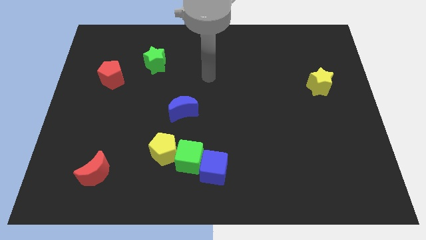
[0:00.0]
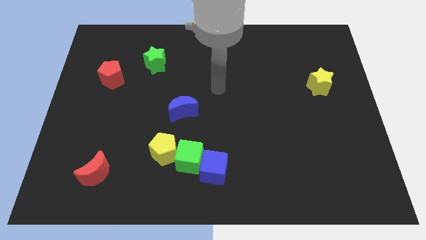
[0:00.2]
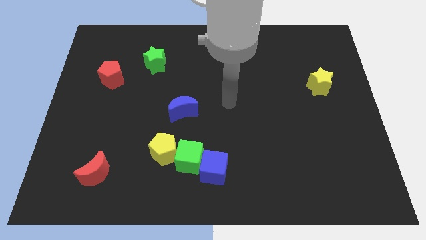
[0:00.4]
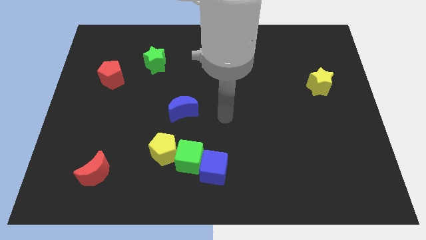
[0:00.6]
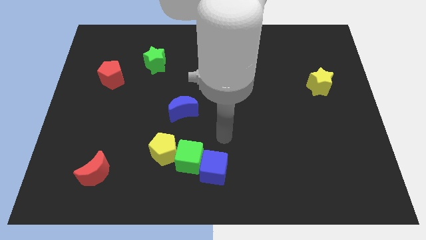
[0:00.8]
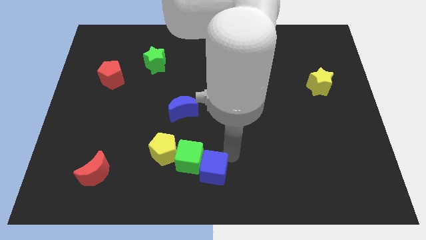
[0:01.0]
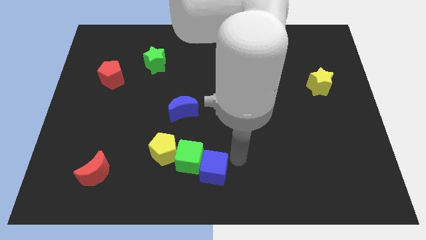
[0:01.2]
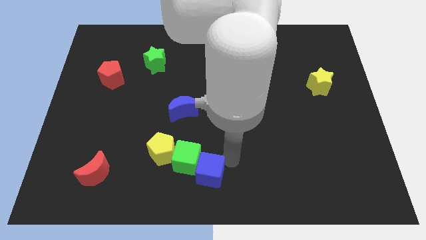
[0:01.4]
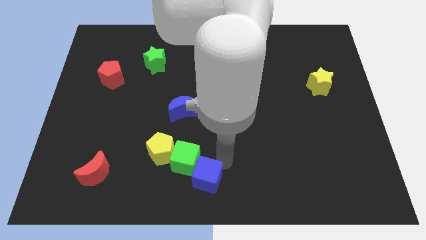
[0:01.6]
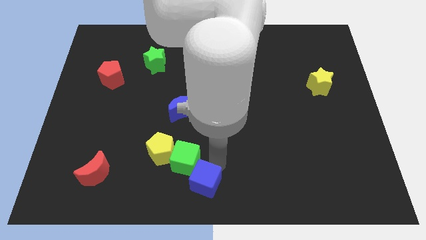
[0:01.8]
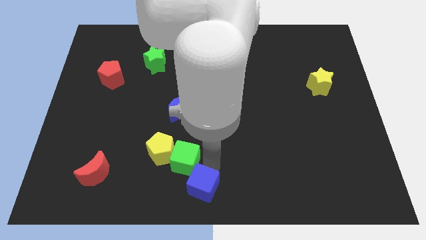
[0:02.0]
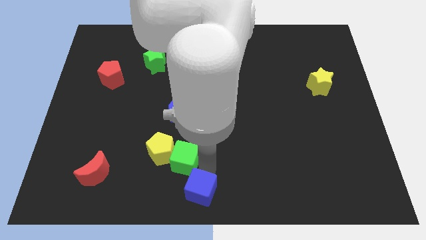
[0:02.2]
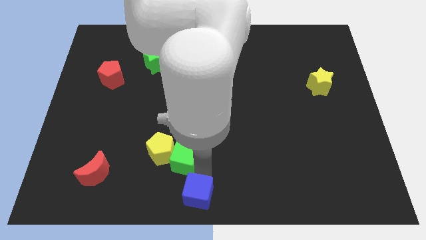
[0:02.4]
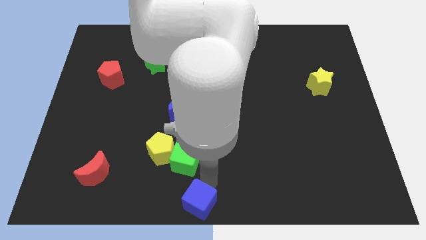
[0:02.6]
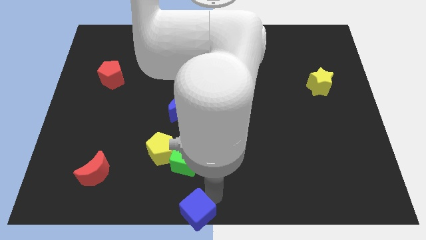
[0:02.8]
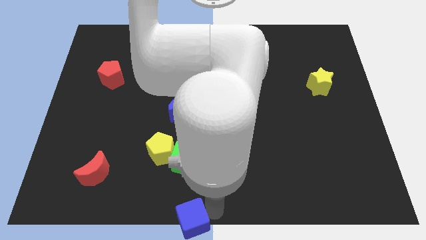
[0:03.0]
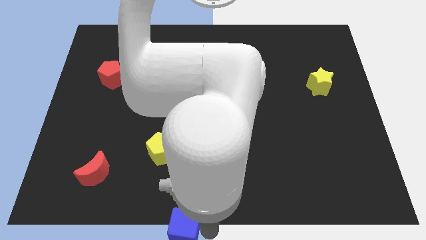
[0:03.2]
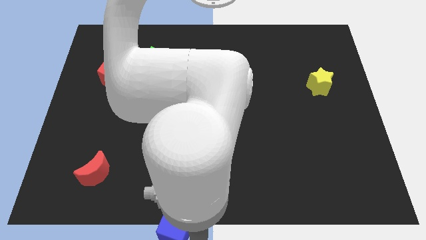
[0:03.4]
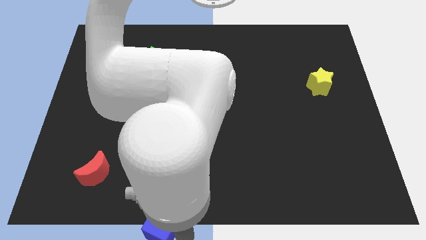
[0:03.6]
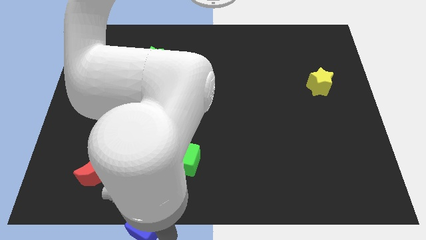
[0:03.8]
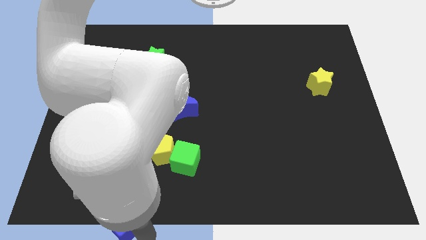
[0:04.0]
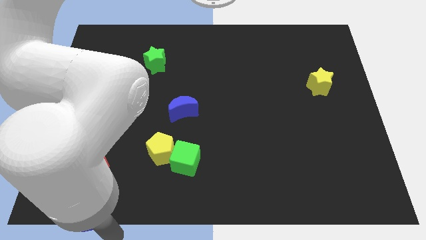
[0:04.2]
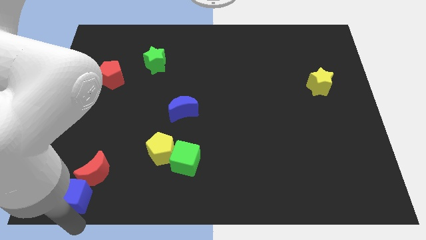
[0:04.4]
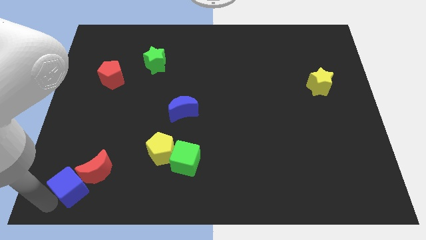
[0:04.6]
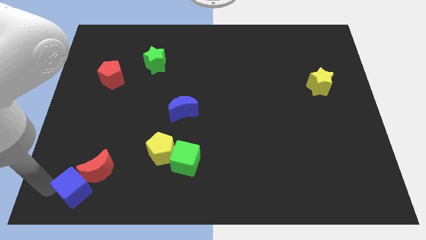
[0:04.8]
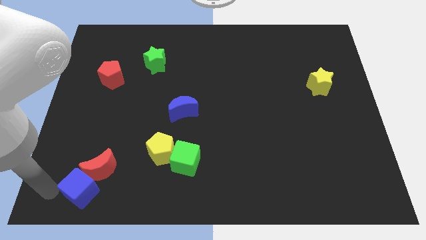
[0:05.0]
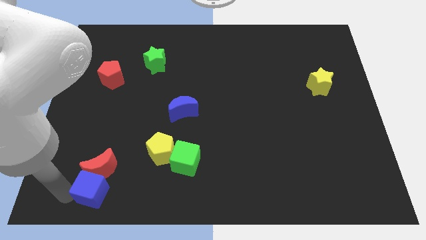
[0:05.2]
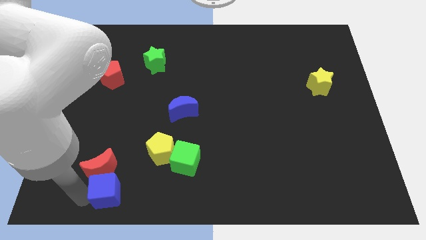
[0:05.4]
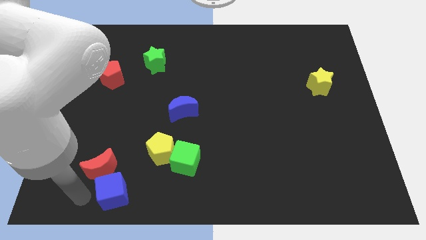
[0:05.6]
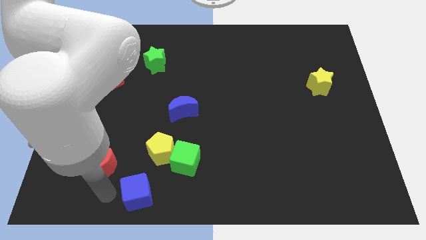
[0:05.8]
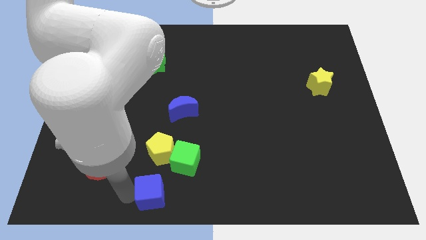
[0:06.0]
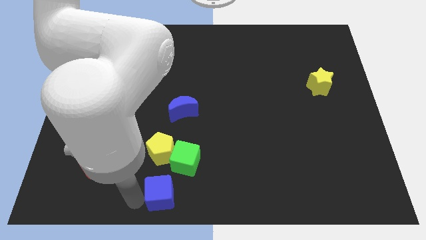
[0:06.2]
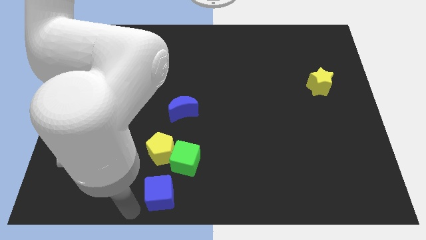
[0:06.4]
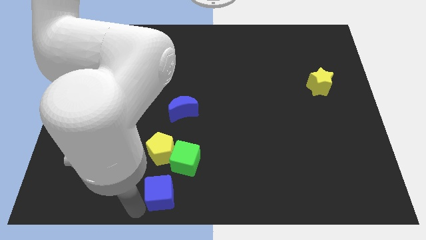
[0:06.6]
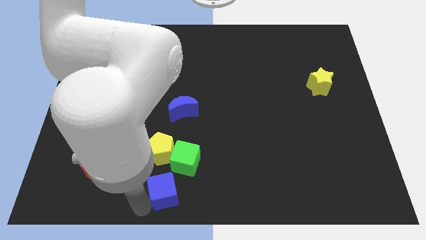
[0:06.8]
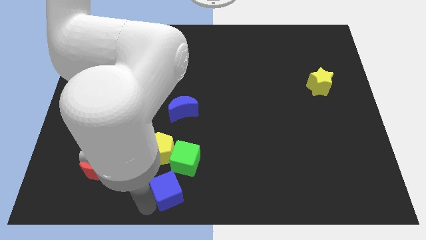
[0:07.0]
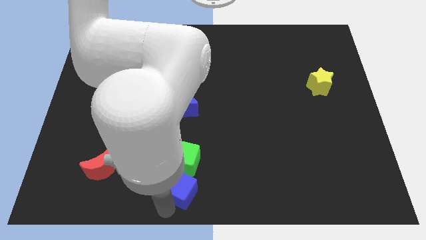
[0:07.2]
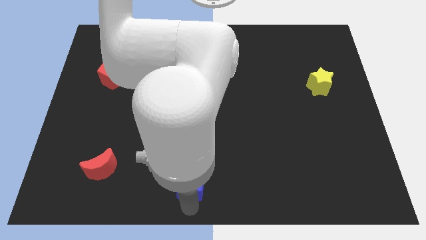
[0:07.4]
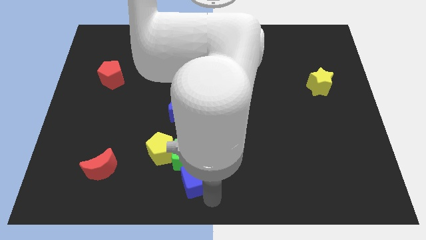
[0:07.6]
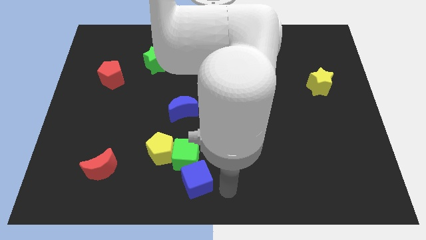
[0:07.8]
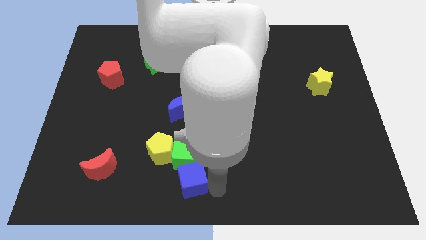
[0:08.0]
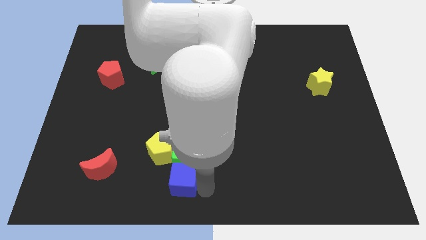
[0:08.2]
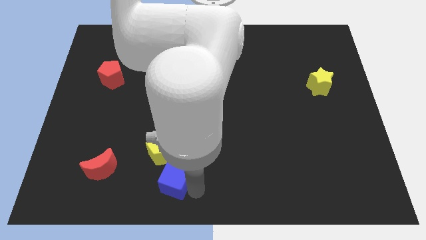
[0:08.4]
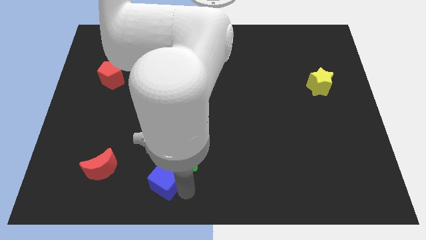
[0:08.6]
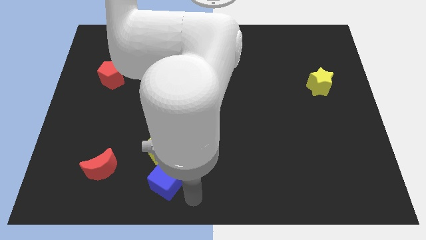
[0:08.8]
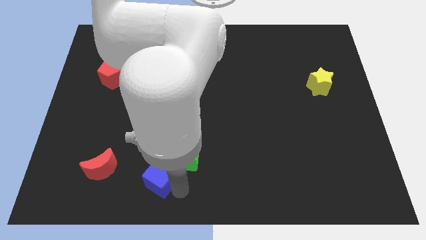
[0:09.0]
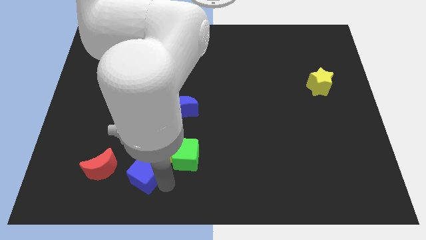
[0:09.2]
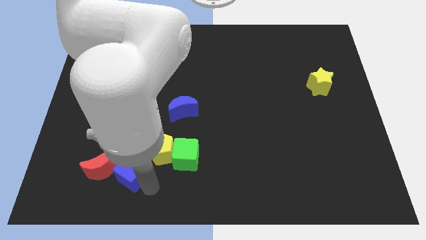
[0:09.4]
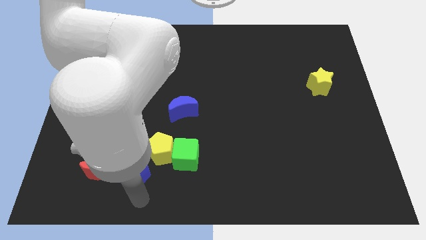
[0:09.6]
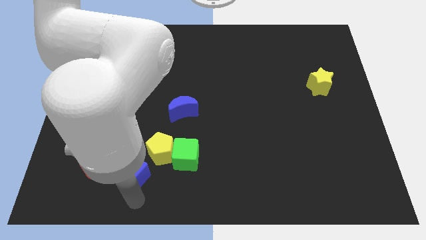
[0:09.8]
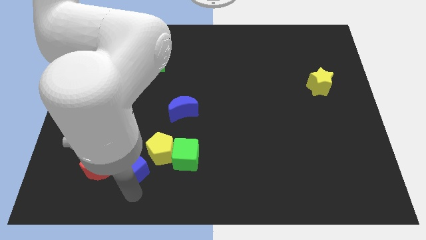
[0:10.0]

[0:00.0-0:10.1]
push the blue cube to the top right of the red moon

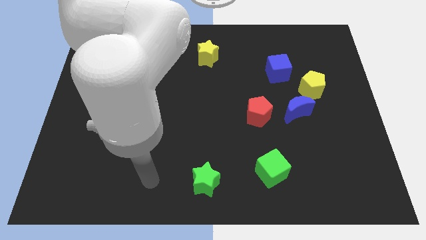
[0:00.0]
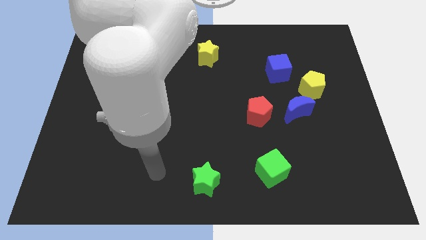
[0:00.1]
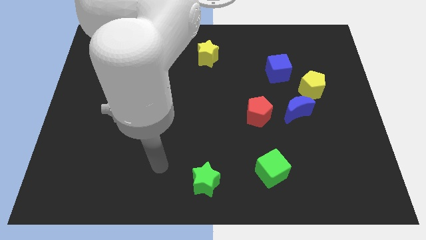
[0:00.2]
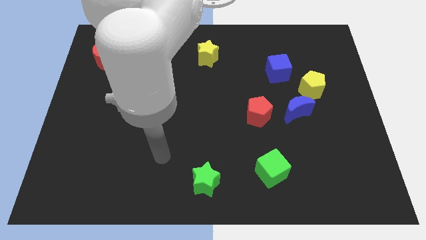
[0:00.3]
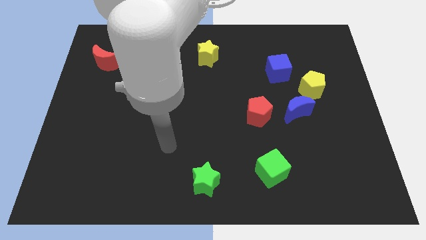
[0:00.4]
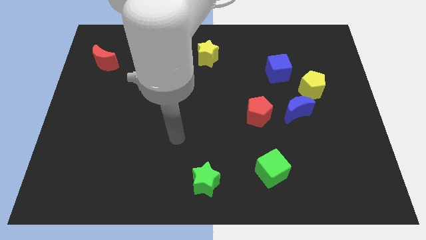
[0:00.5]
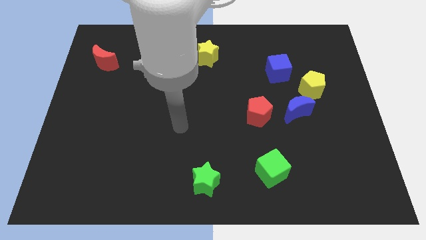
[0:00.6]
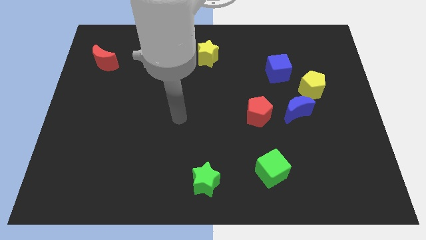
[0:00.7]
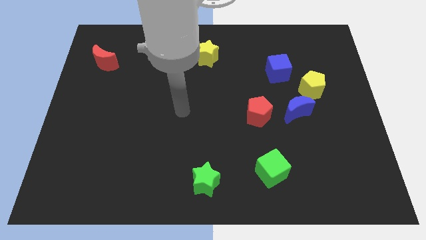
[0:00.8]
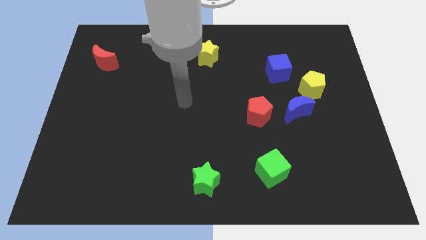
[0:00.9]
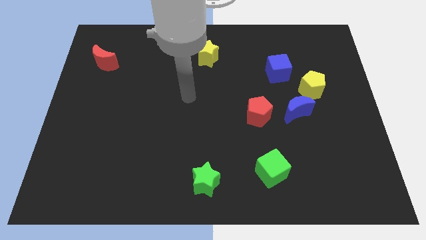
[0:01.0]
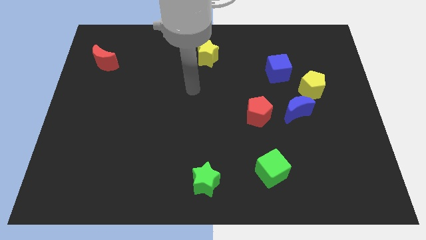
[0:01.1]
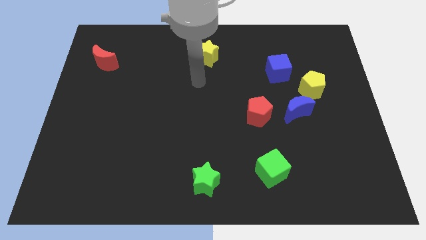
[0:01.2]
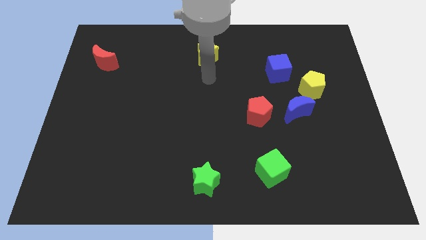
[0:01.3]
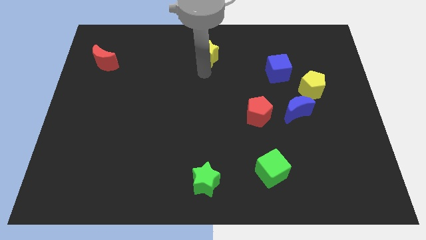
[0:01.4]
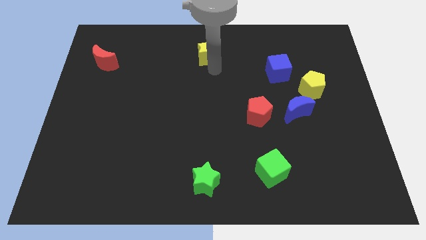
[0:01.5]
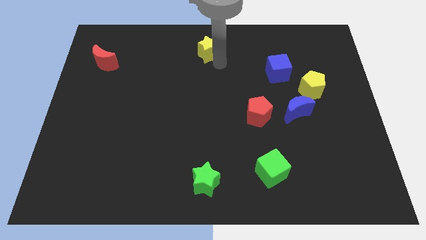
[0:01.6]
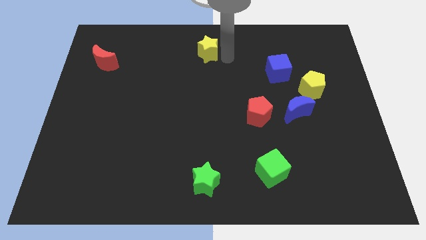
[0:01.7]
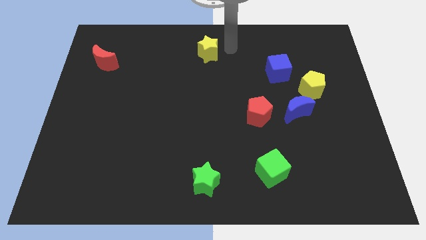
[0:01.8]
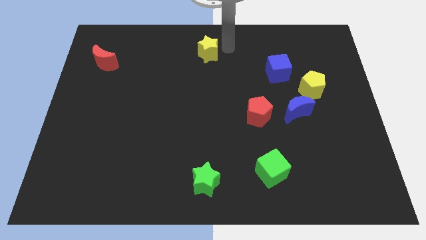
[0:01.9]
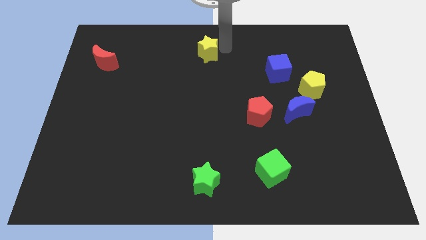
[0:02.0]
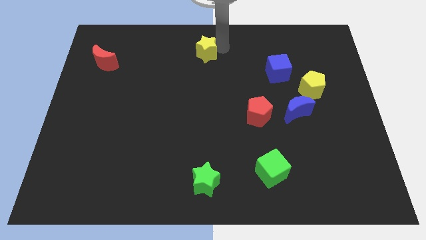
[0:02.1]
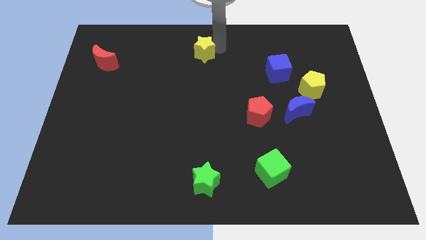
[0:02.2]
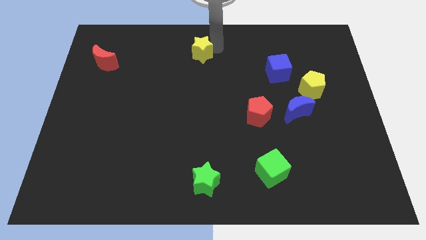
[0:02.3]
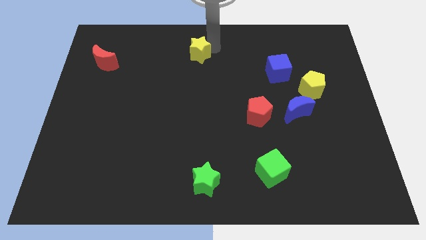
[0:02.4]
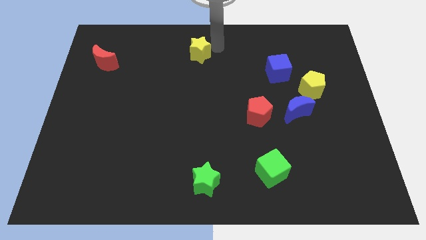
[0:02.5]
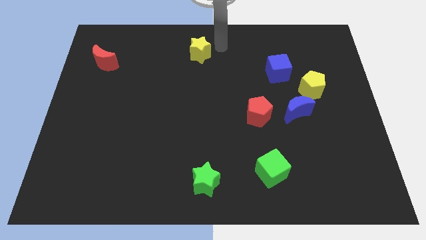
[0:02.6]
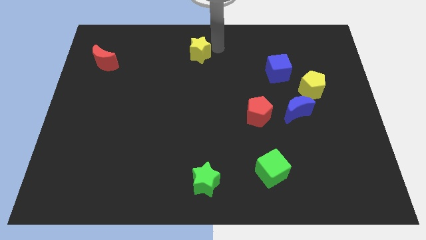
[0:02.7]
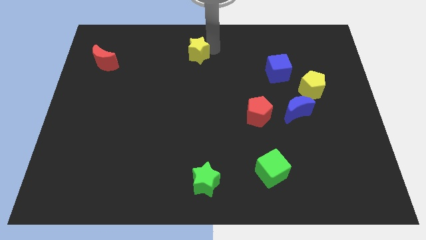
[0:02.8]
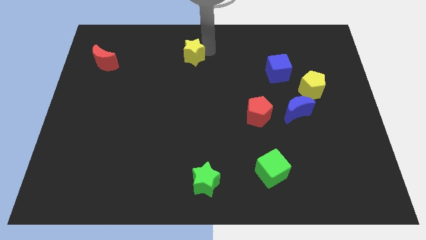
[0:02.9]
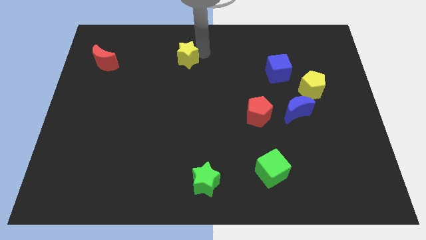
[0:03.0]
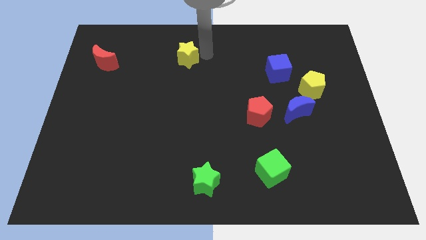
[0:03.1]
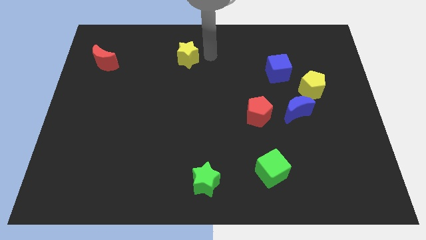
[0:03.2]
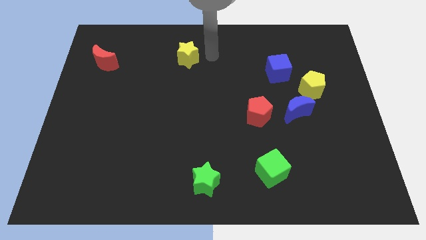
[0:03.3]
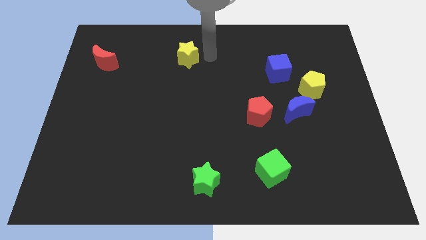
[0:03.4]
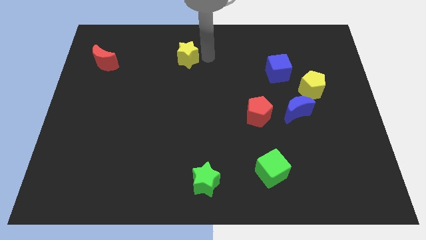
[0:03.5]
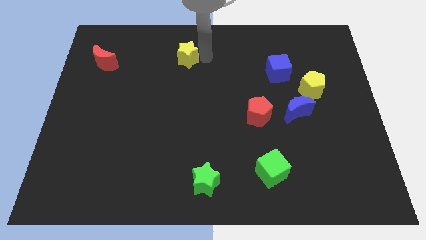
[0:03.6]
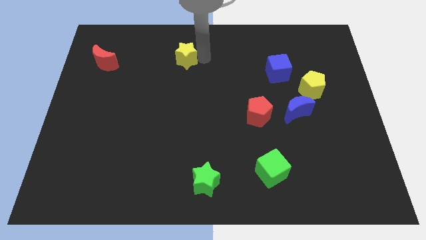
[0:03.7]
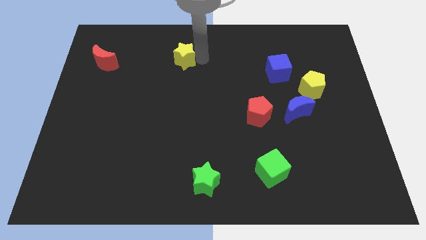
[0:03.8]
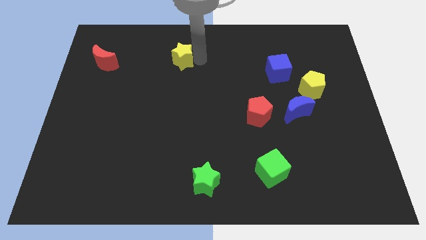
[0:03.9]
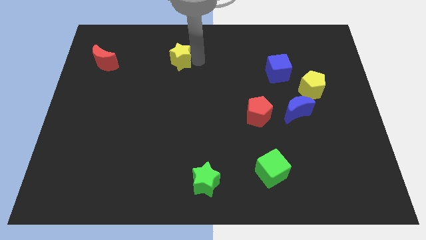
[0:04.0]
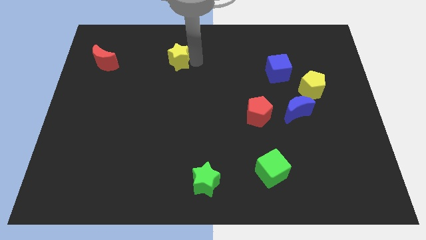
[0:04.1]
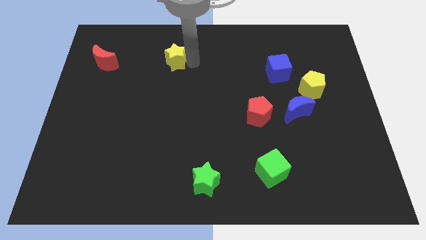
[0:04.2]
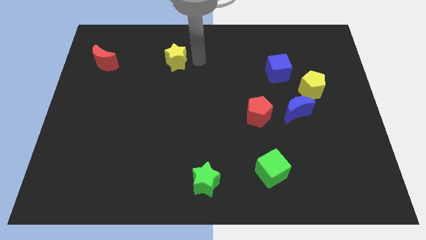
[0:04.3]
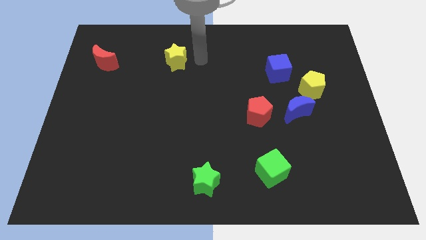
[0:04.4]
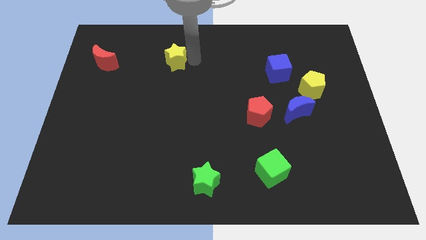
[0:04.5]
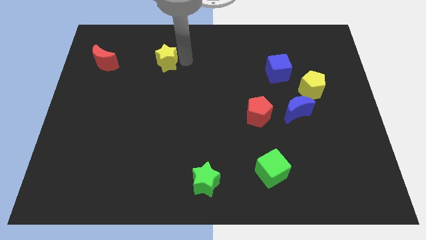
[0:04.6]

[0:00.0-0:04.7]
put the yellow star right of the red moon
